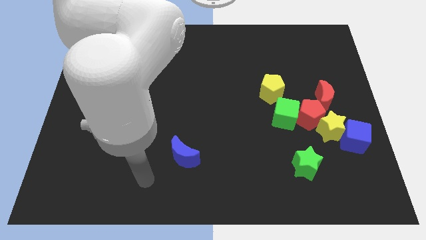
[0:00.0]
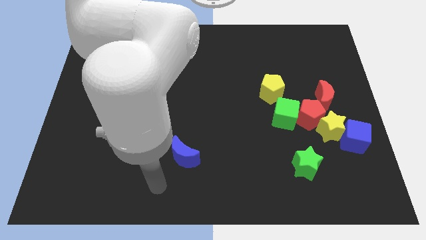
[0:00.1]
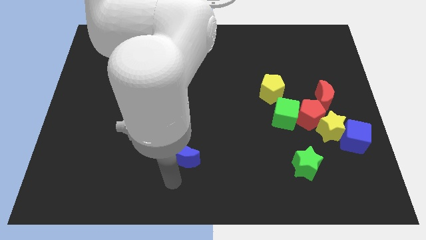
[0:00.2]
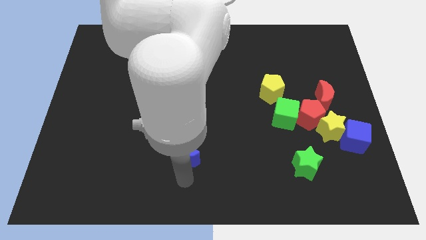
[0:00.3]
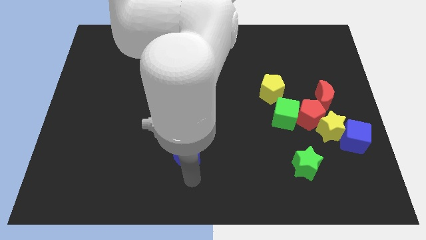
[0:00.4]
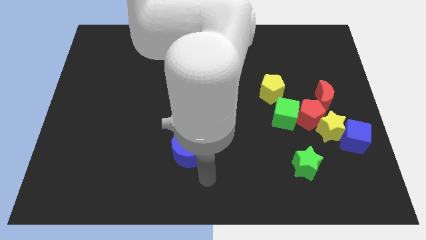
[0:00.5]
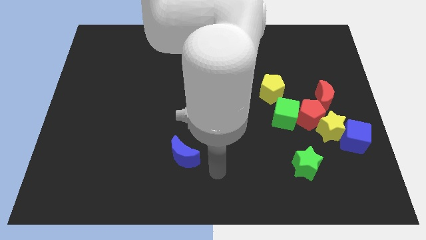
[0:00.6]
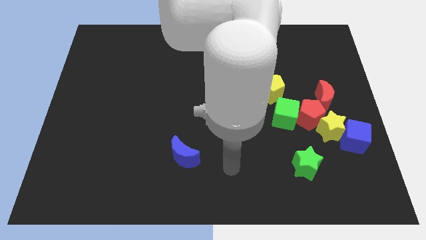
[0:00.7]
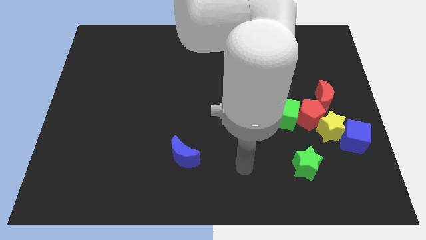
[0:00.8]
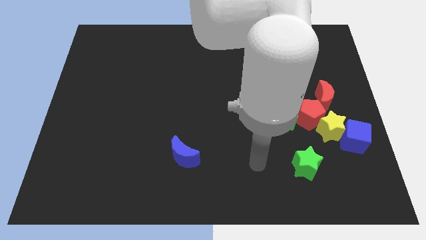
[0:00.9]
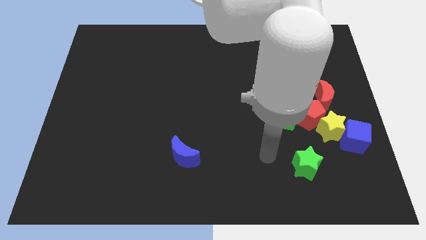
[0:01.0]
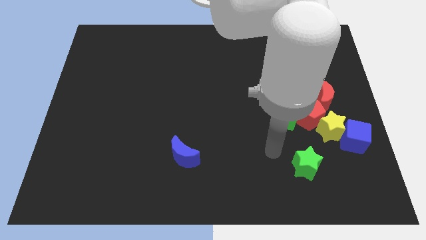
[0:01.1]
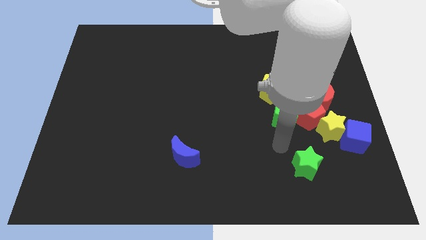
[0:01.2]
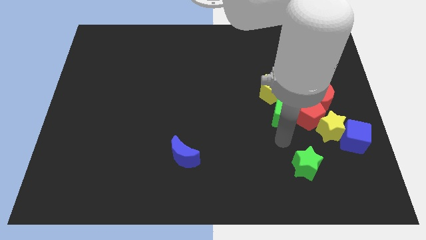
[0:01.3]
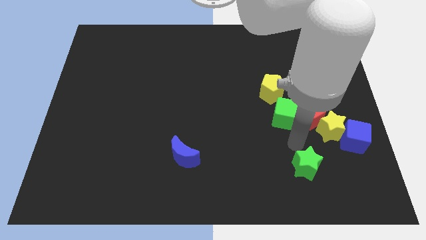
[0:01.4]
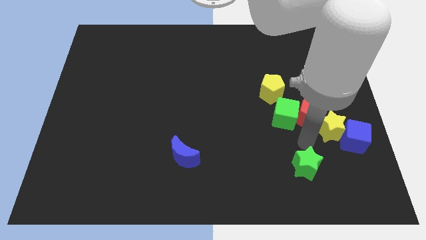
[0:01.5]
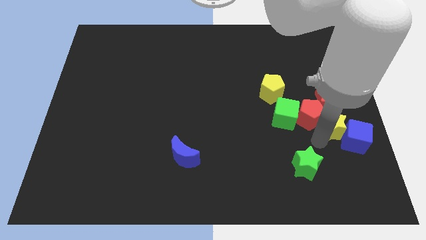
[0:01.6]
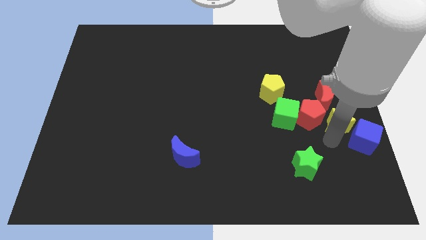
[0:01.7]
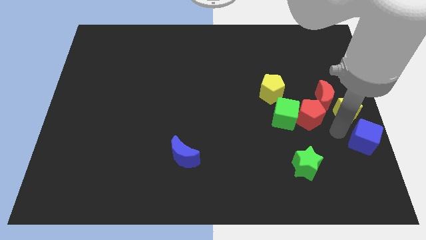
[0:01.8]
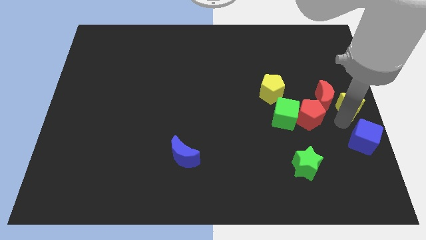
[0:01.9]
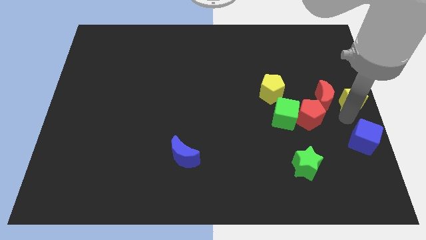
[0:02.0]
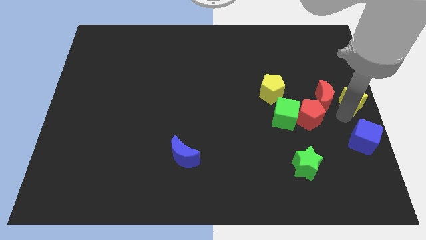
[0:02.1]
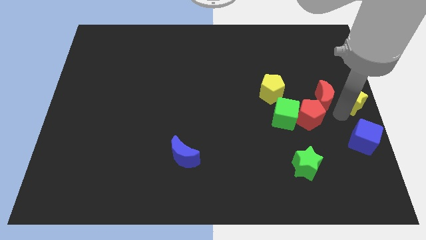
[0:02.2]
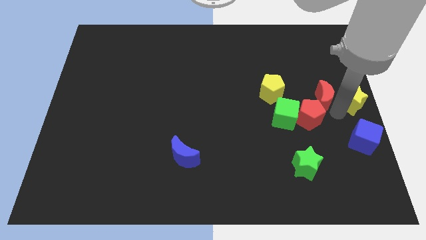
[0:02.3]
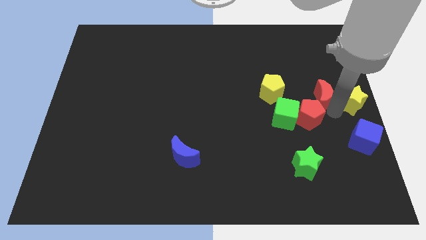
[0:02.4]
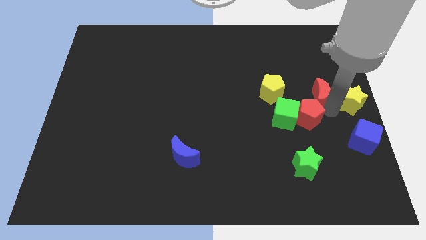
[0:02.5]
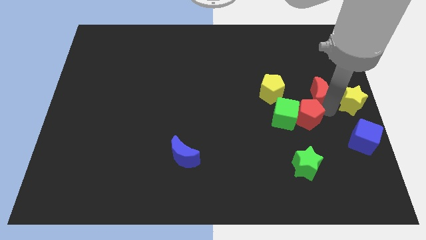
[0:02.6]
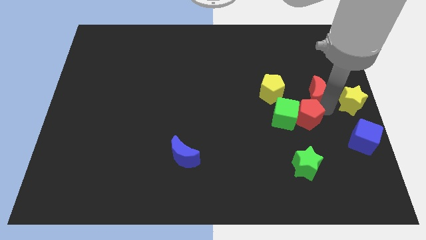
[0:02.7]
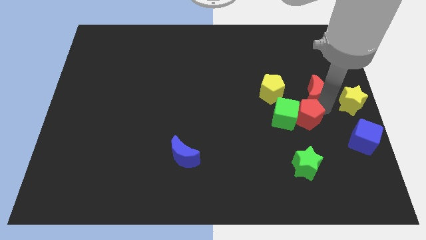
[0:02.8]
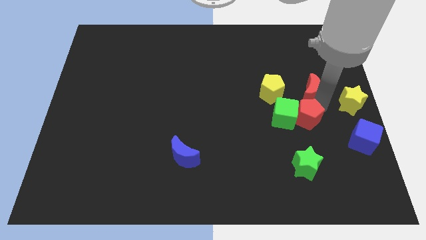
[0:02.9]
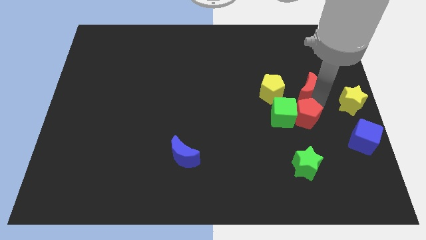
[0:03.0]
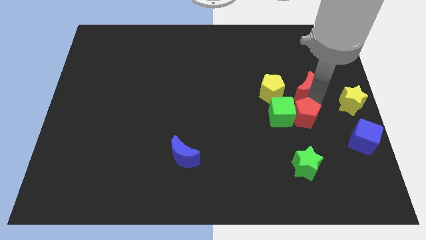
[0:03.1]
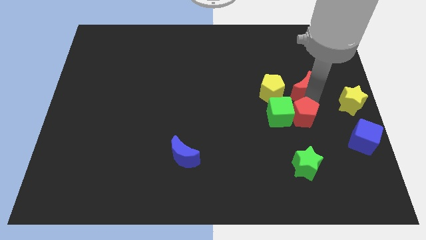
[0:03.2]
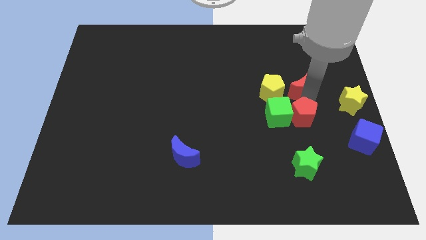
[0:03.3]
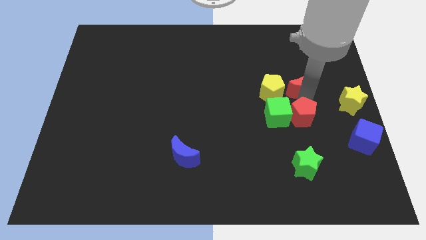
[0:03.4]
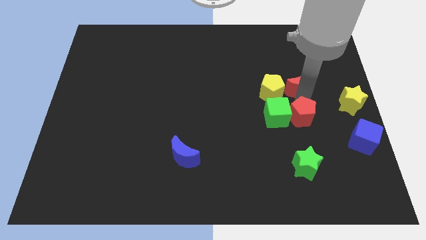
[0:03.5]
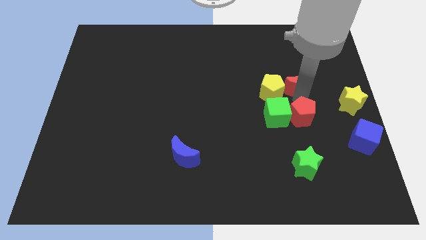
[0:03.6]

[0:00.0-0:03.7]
push the red moon somewhat up and left

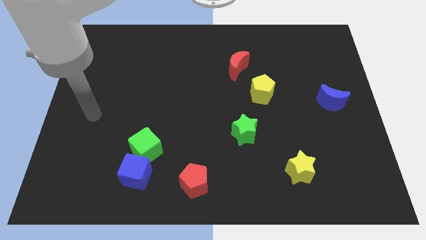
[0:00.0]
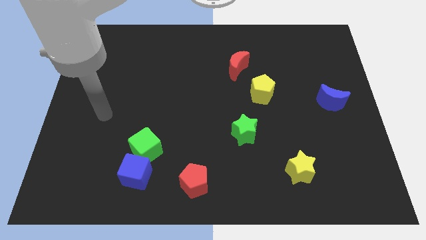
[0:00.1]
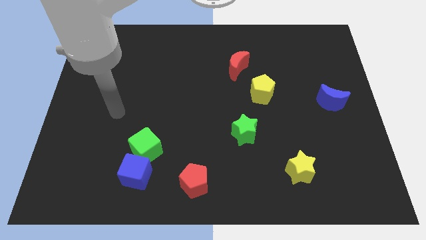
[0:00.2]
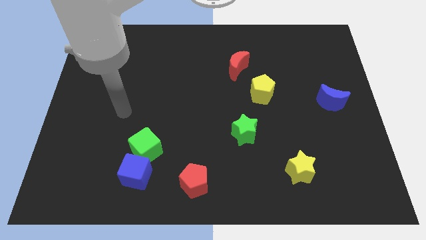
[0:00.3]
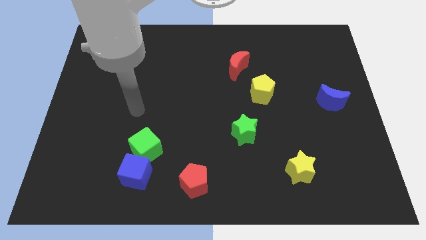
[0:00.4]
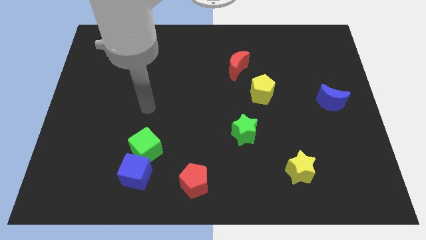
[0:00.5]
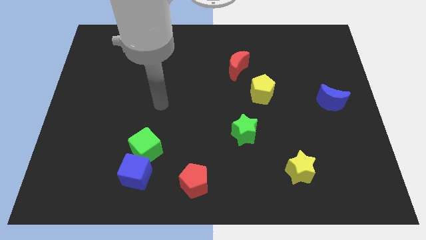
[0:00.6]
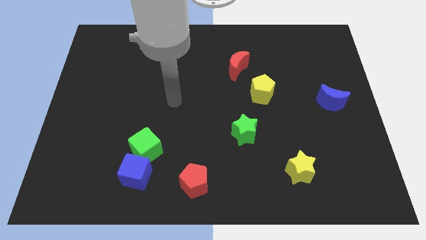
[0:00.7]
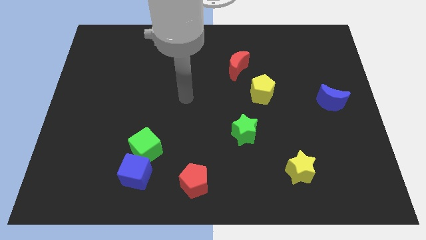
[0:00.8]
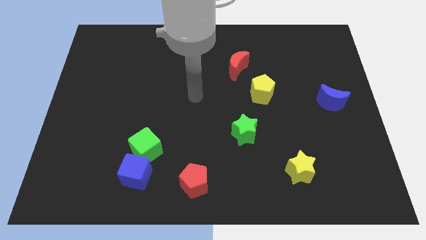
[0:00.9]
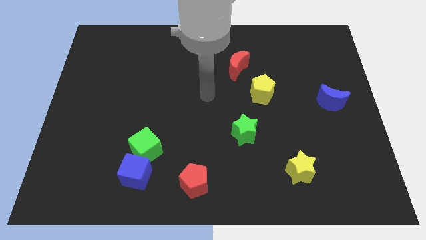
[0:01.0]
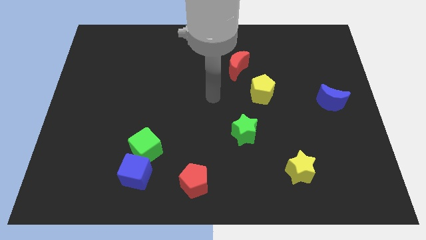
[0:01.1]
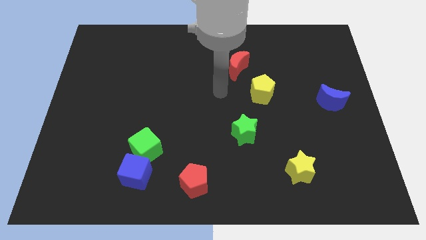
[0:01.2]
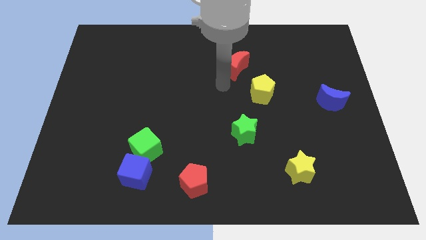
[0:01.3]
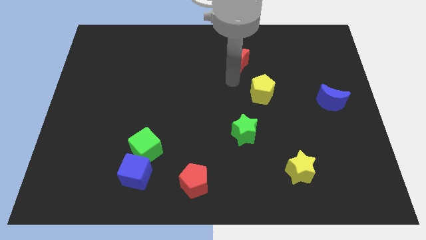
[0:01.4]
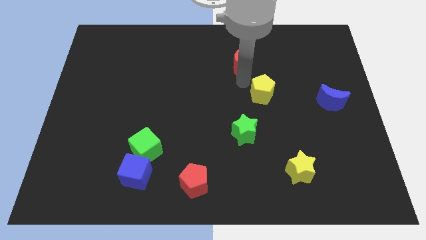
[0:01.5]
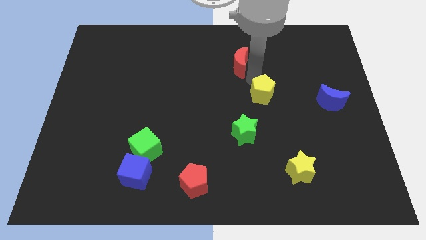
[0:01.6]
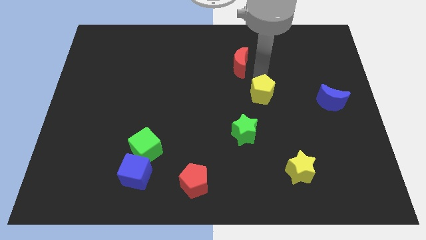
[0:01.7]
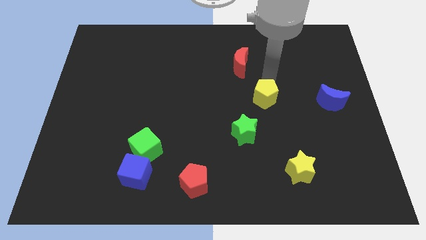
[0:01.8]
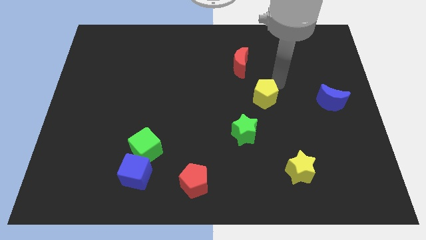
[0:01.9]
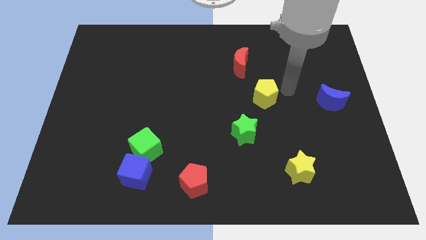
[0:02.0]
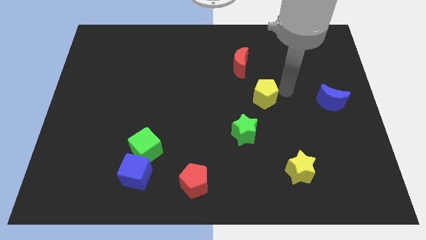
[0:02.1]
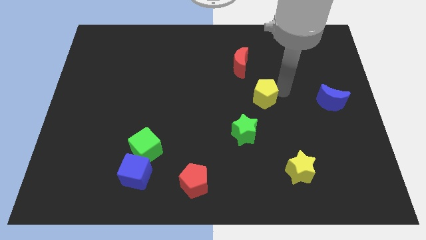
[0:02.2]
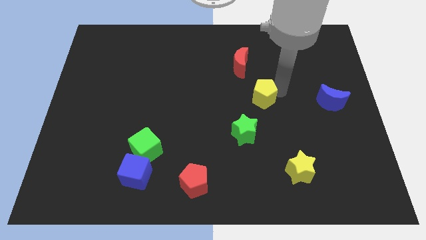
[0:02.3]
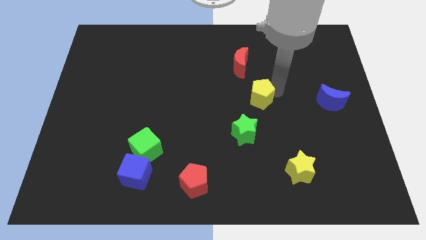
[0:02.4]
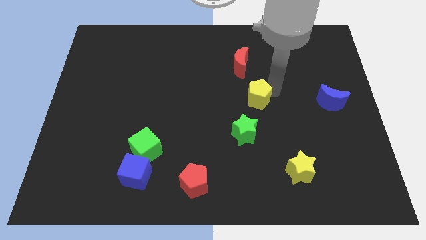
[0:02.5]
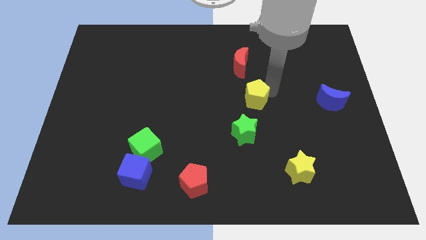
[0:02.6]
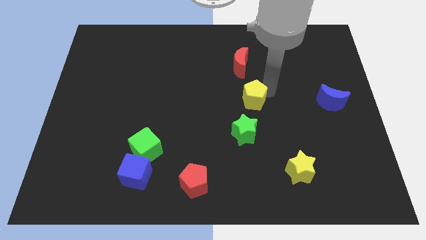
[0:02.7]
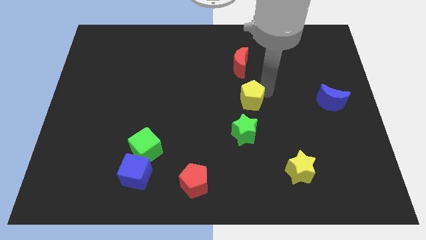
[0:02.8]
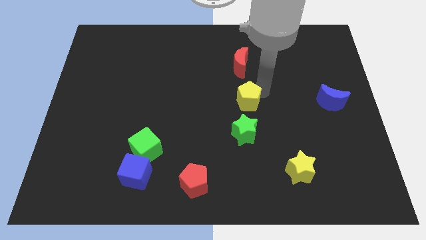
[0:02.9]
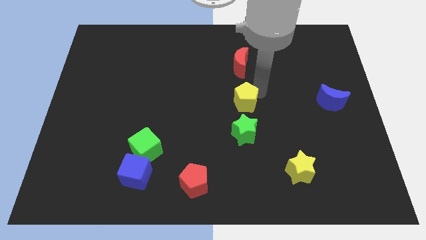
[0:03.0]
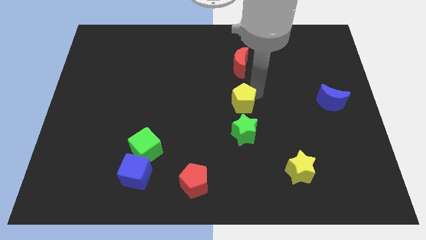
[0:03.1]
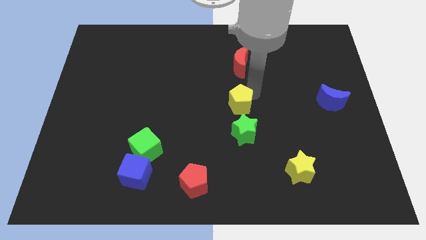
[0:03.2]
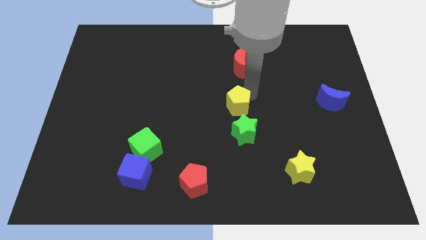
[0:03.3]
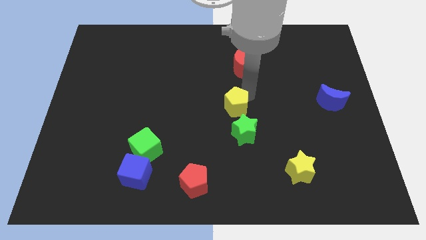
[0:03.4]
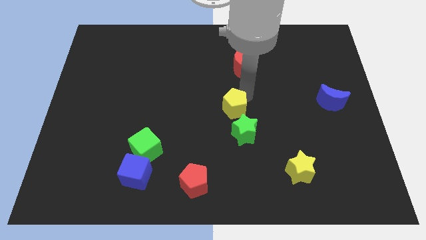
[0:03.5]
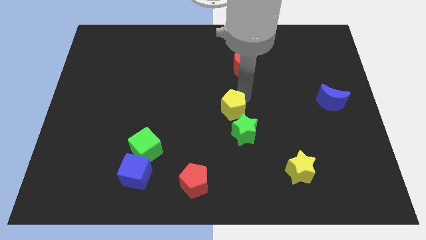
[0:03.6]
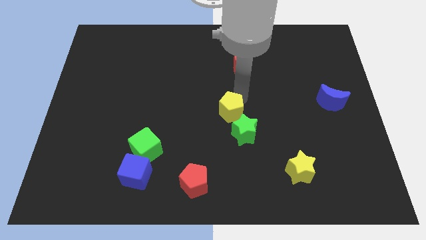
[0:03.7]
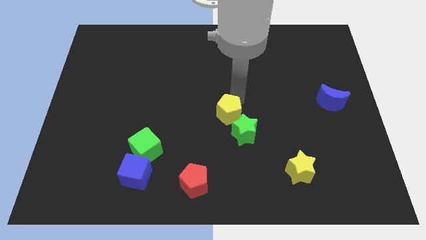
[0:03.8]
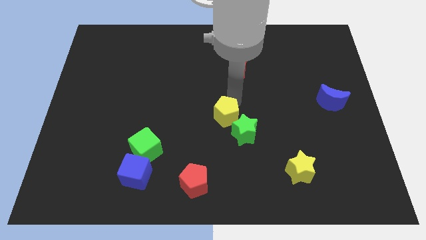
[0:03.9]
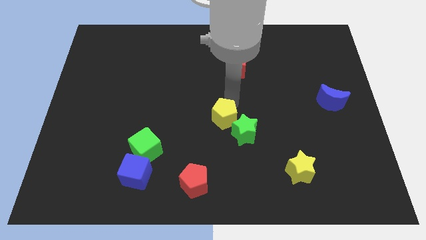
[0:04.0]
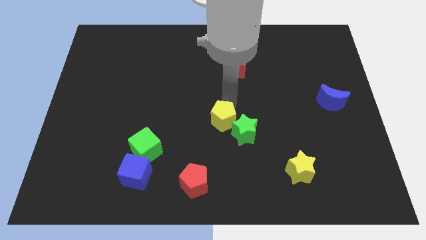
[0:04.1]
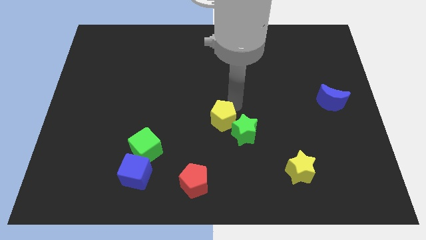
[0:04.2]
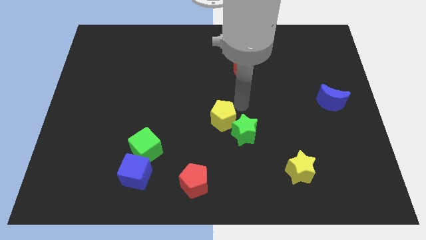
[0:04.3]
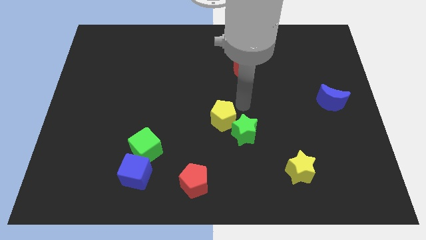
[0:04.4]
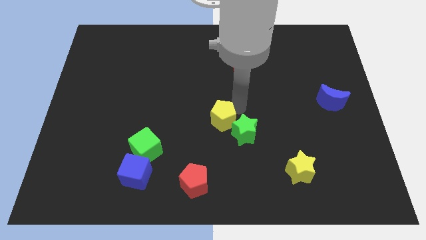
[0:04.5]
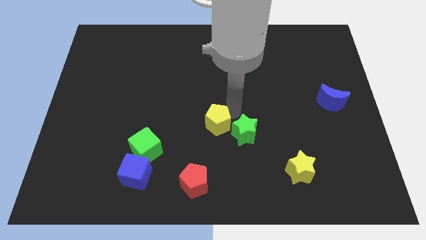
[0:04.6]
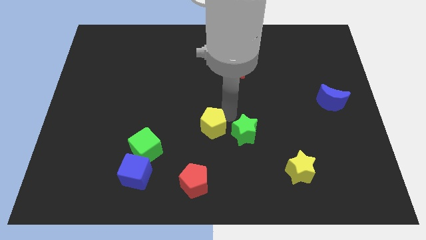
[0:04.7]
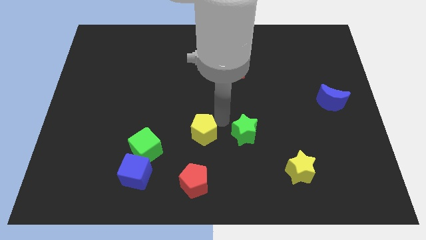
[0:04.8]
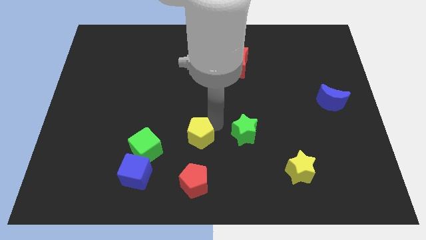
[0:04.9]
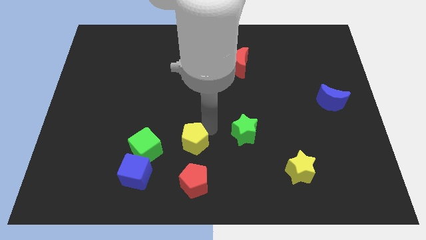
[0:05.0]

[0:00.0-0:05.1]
move the yellow pentagon downwards and left diagonally
